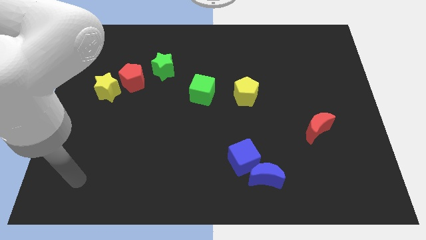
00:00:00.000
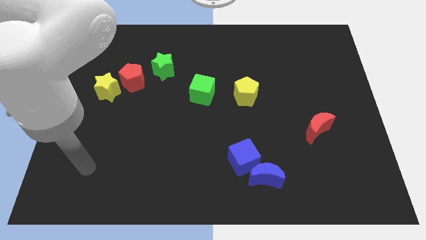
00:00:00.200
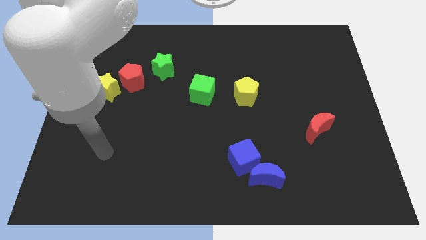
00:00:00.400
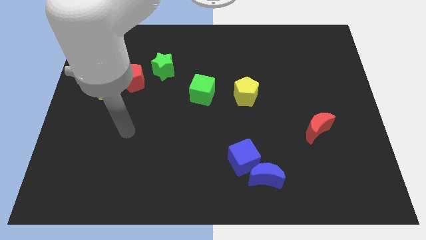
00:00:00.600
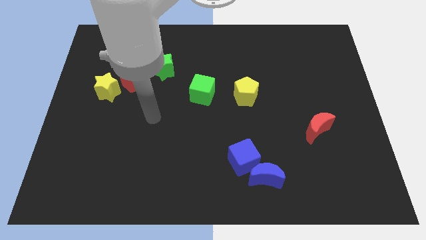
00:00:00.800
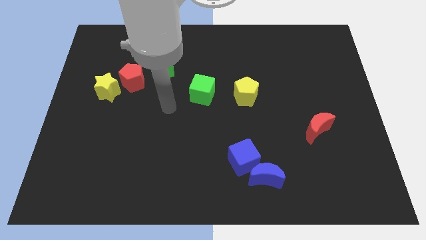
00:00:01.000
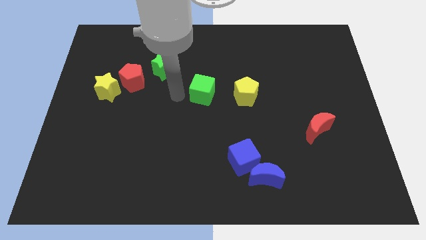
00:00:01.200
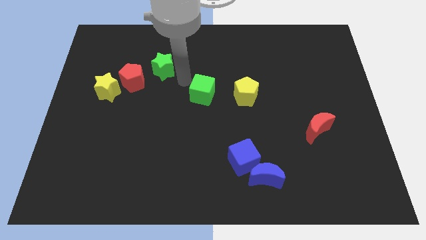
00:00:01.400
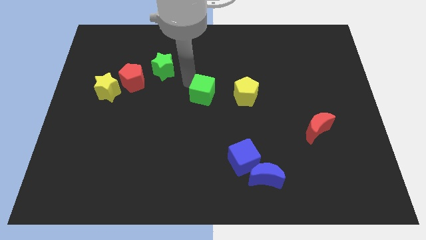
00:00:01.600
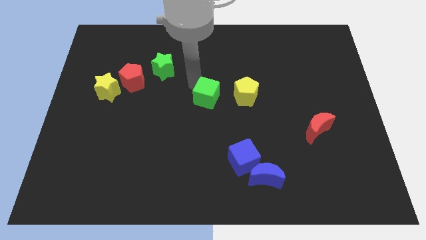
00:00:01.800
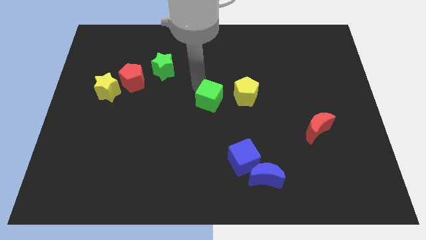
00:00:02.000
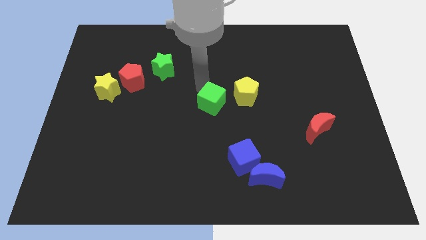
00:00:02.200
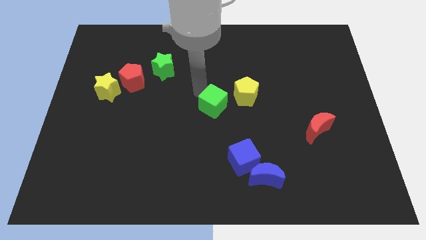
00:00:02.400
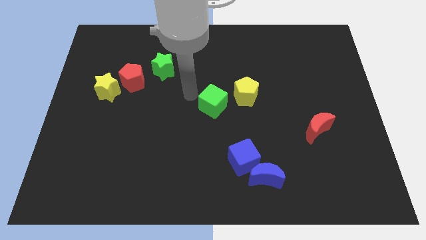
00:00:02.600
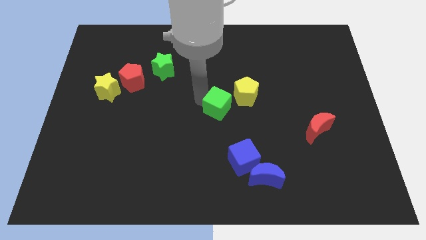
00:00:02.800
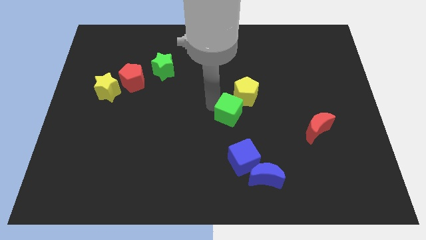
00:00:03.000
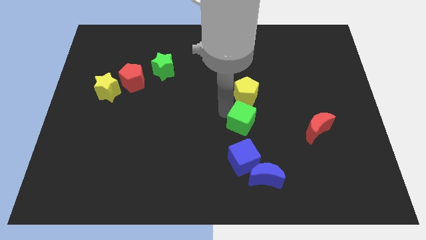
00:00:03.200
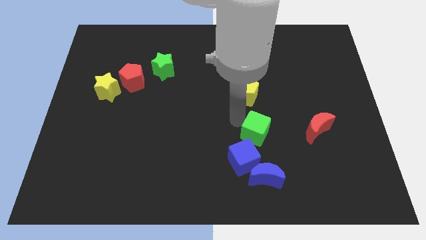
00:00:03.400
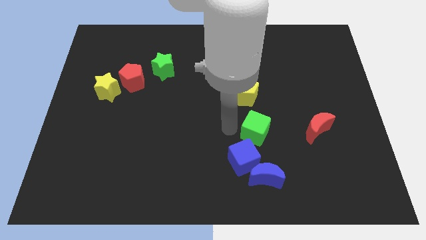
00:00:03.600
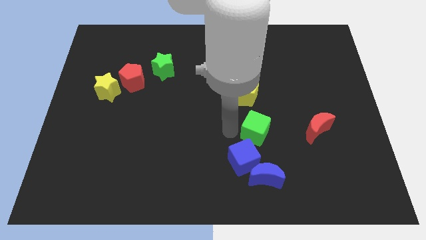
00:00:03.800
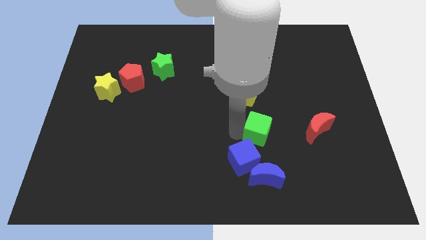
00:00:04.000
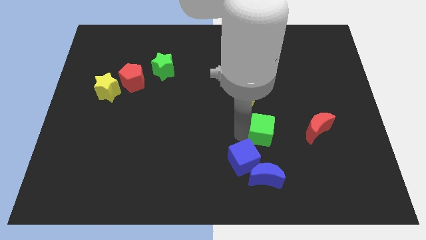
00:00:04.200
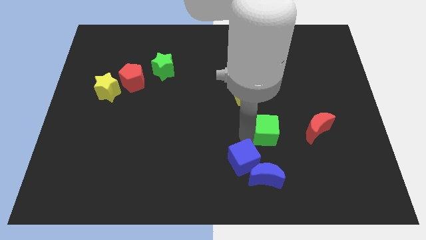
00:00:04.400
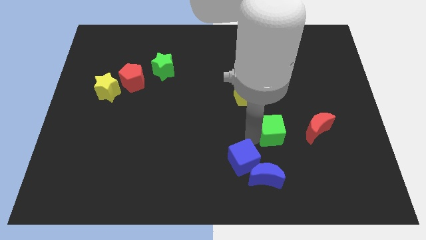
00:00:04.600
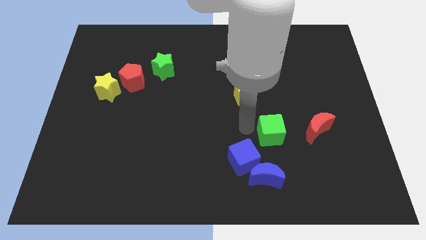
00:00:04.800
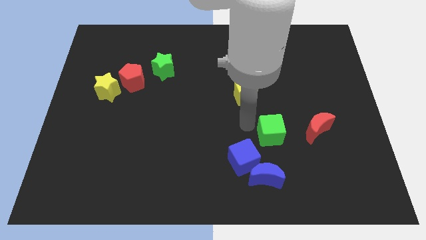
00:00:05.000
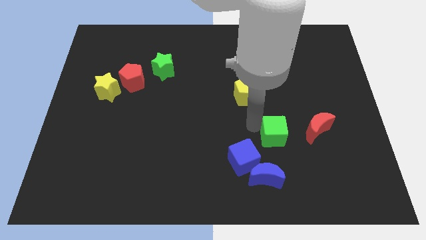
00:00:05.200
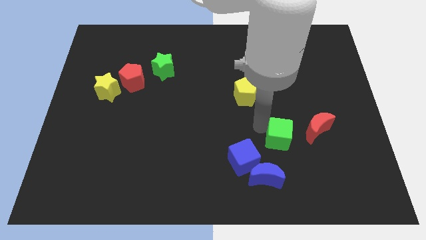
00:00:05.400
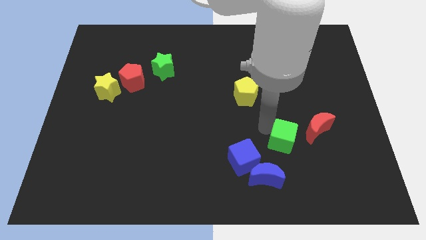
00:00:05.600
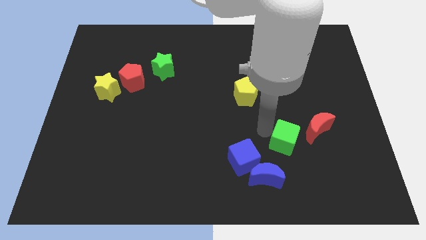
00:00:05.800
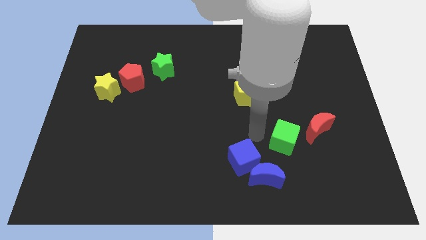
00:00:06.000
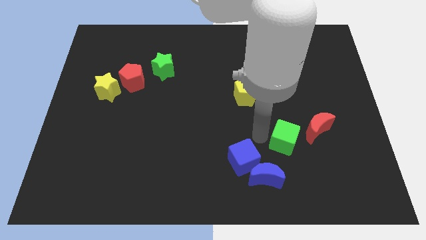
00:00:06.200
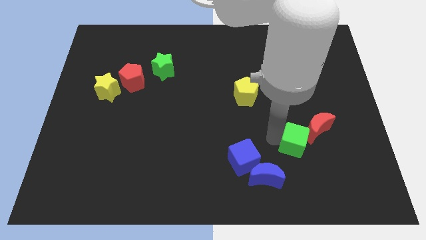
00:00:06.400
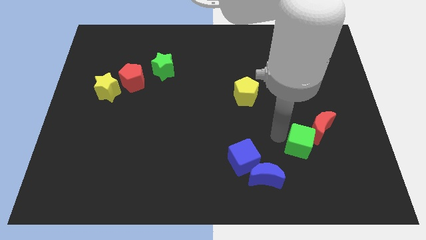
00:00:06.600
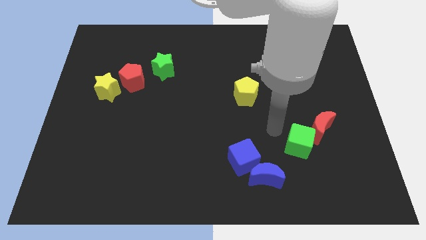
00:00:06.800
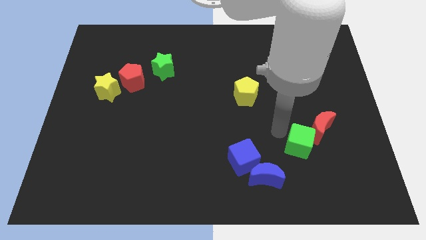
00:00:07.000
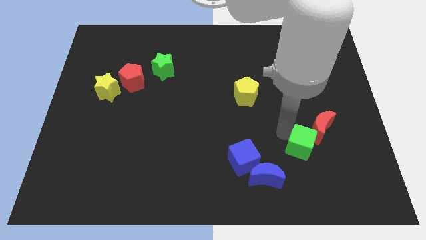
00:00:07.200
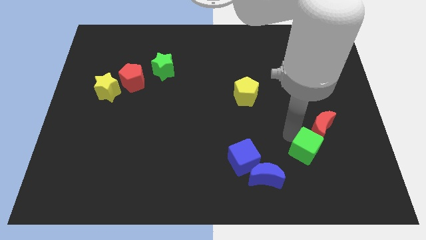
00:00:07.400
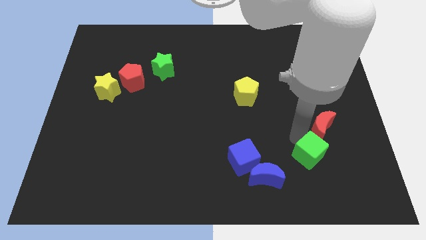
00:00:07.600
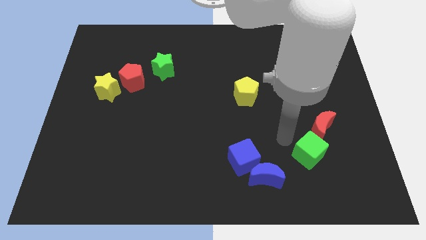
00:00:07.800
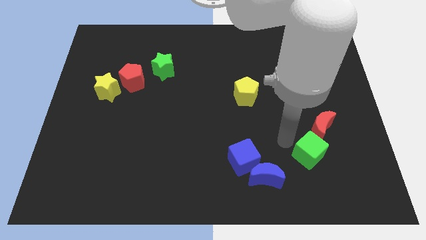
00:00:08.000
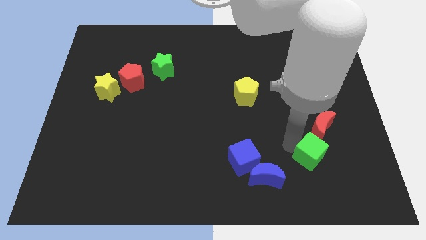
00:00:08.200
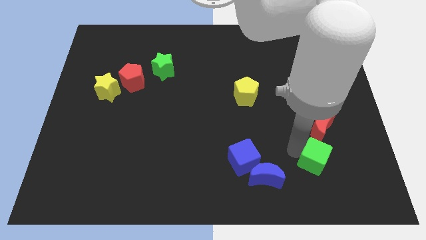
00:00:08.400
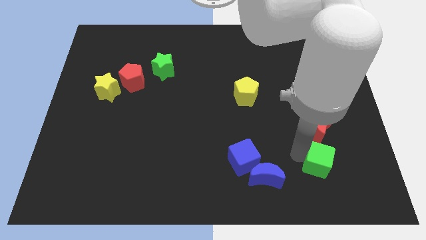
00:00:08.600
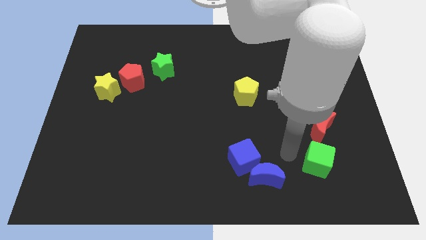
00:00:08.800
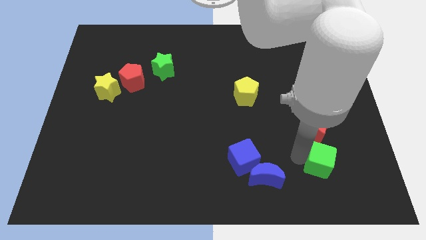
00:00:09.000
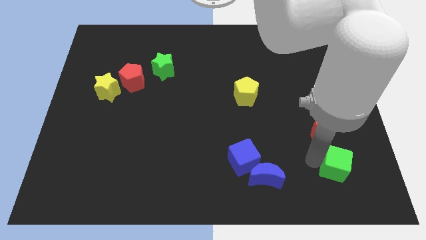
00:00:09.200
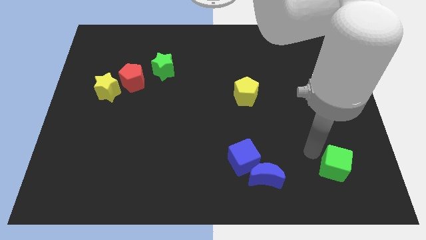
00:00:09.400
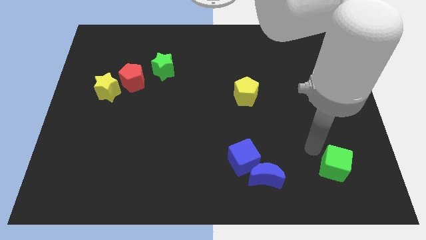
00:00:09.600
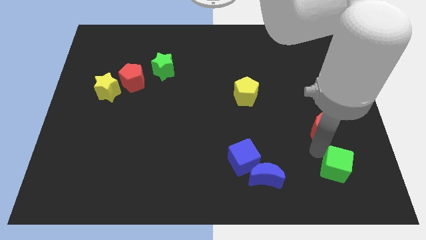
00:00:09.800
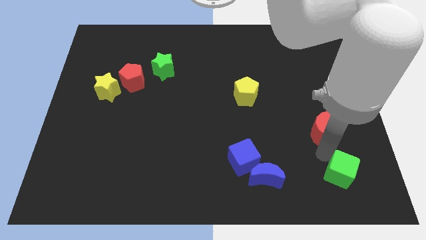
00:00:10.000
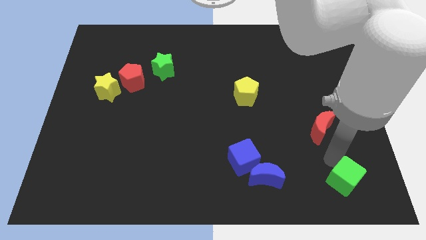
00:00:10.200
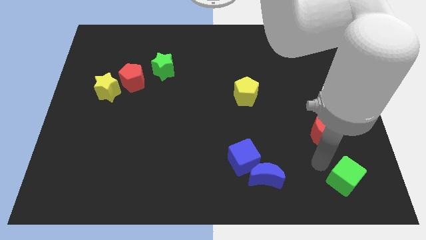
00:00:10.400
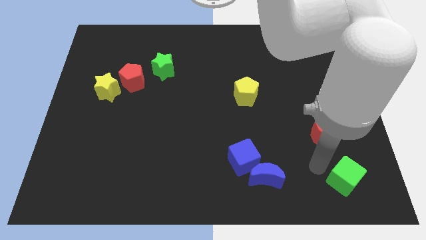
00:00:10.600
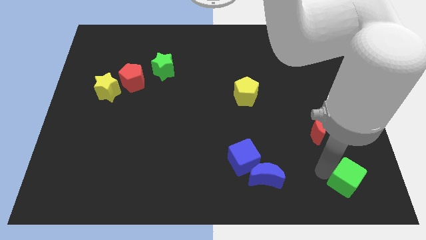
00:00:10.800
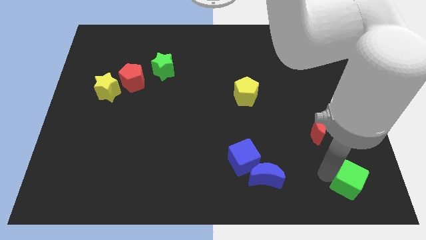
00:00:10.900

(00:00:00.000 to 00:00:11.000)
move the green cube to the bottom right corner

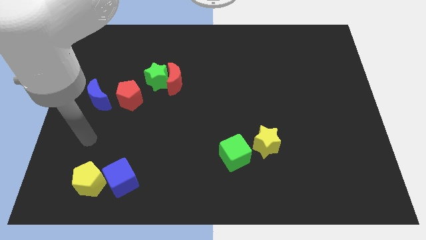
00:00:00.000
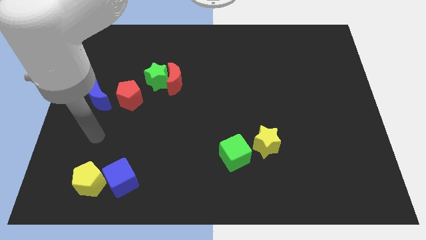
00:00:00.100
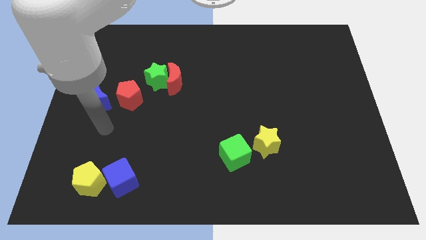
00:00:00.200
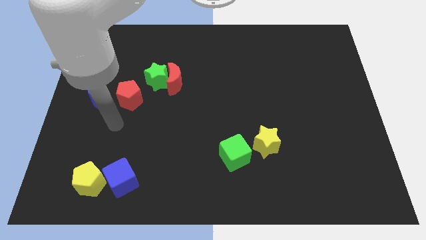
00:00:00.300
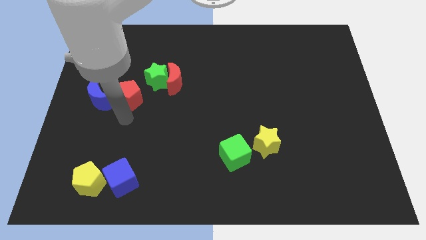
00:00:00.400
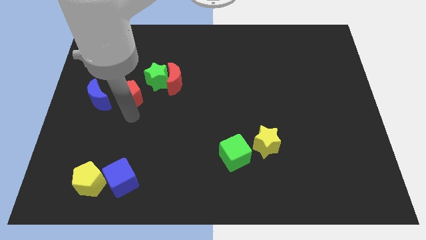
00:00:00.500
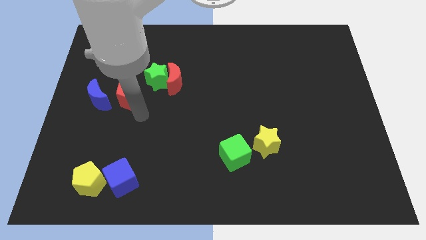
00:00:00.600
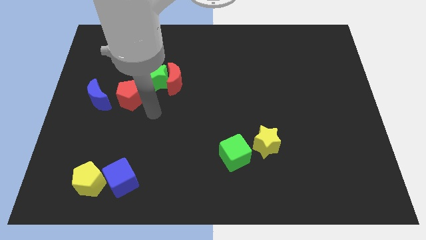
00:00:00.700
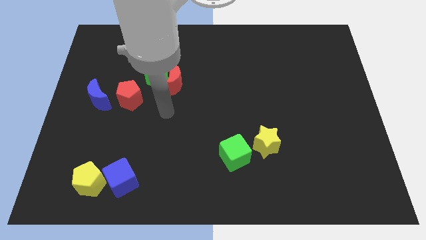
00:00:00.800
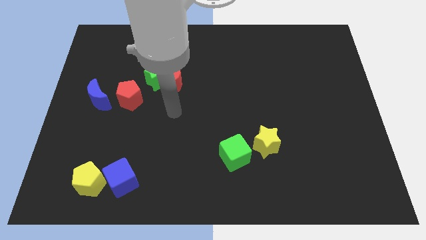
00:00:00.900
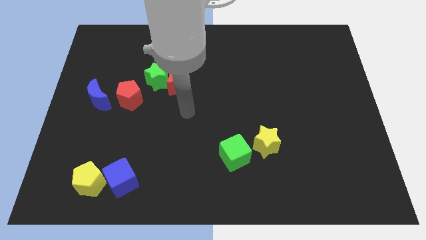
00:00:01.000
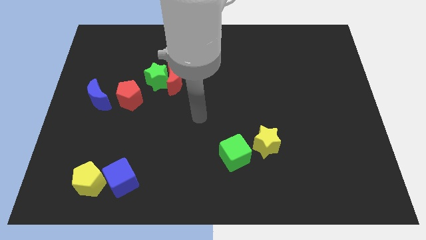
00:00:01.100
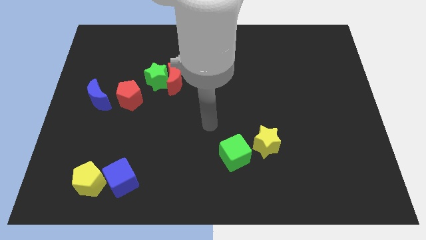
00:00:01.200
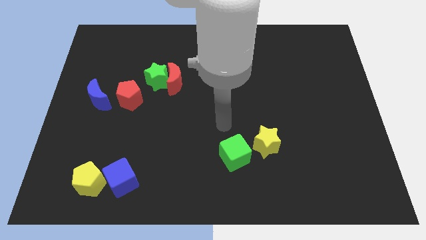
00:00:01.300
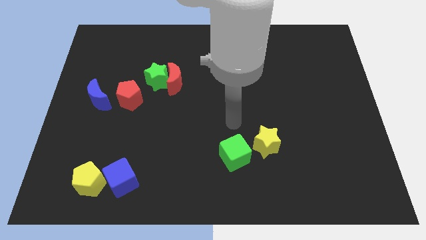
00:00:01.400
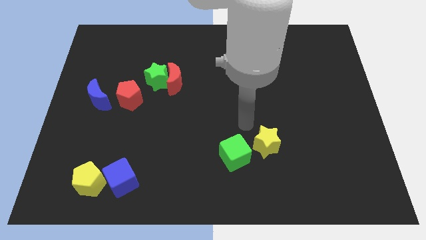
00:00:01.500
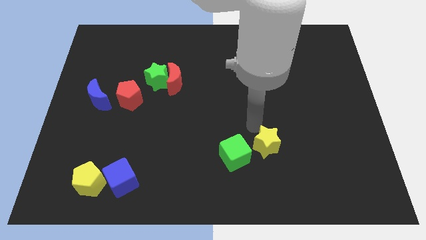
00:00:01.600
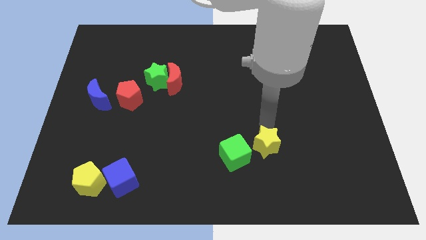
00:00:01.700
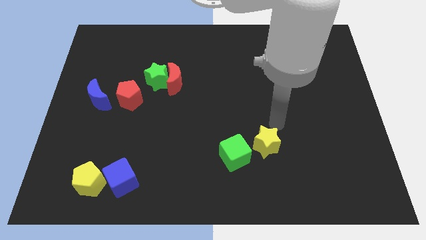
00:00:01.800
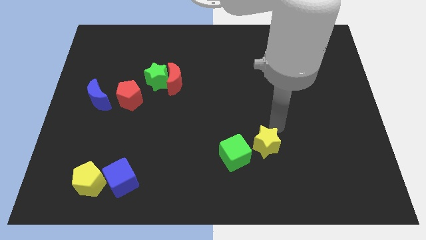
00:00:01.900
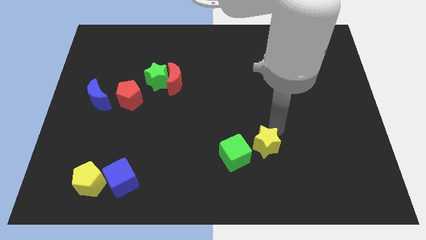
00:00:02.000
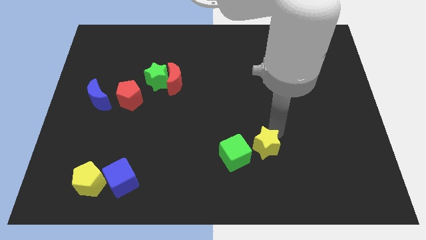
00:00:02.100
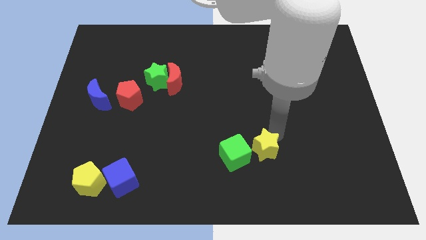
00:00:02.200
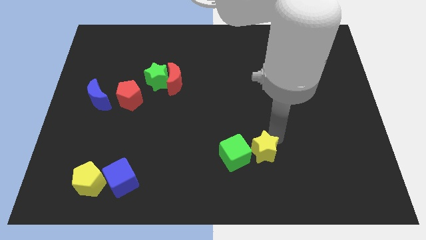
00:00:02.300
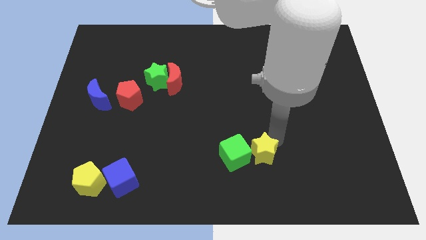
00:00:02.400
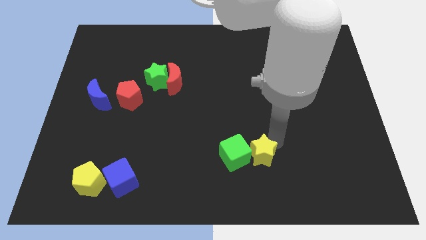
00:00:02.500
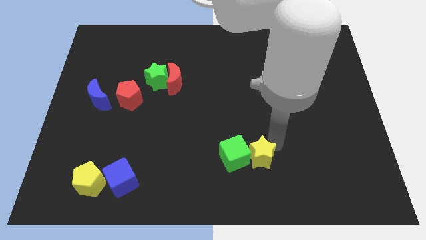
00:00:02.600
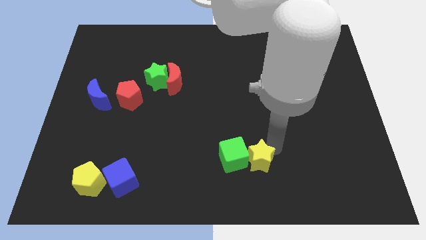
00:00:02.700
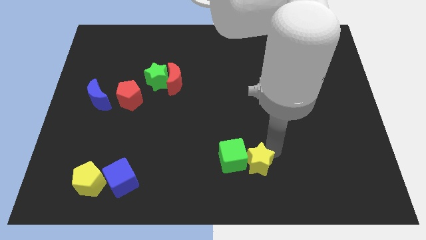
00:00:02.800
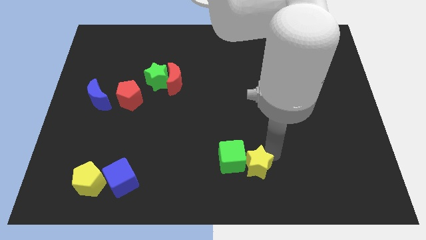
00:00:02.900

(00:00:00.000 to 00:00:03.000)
put the yellow star to the bottom side
